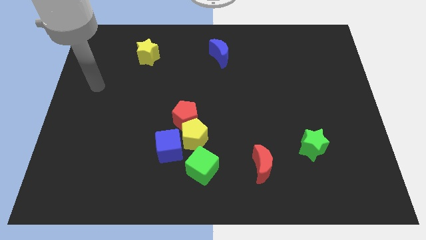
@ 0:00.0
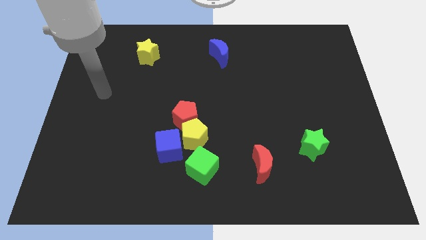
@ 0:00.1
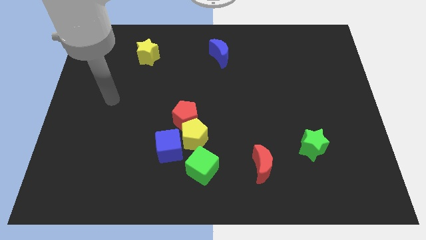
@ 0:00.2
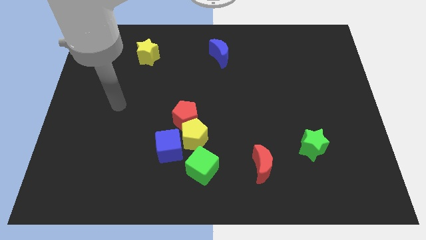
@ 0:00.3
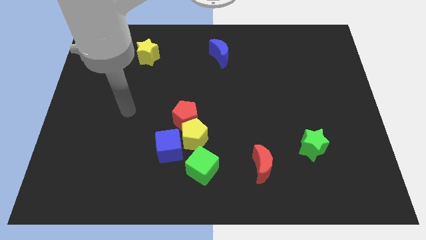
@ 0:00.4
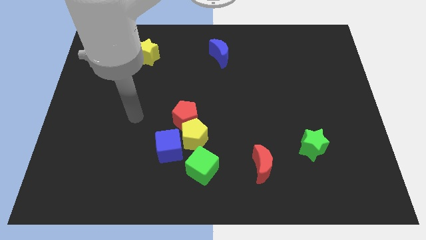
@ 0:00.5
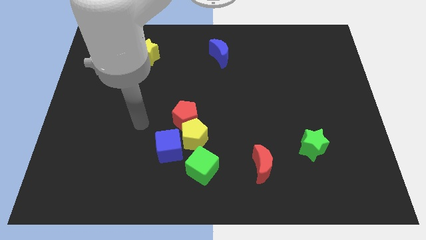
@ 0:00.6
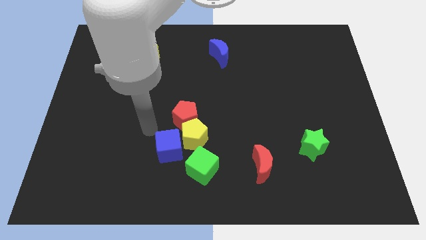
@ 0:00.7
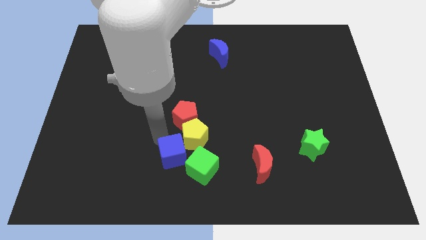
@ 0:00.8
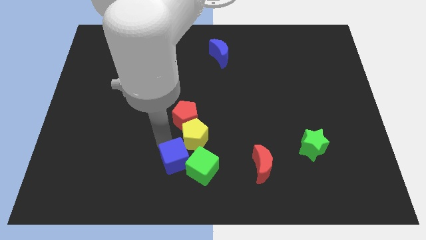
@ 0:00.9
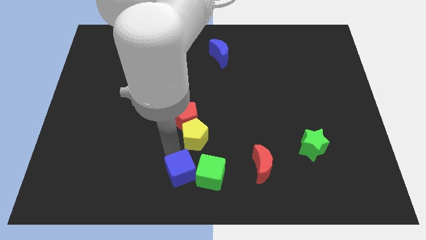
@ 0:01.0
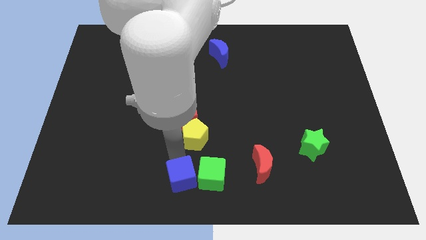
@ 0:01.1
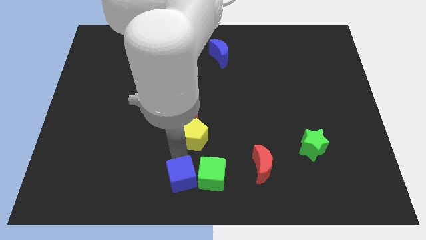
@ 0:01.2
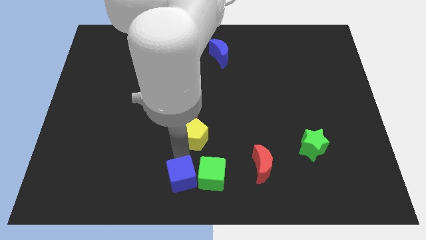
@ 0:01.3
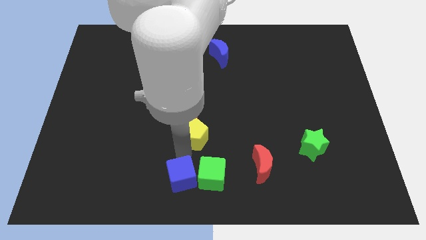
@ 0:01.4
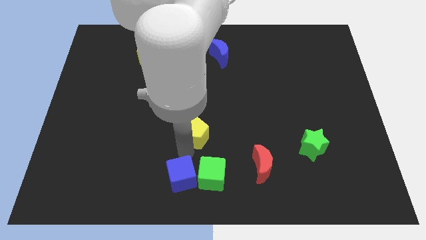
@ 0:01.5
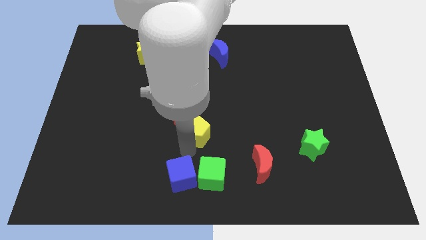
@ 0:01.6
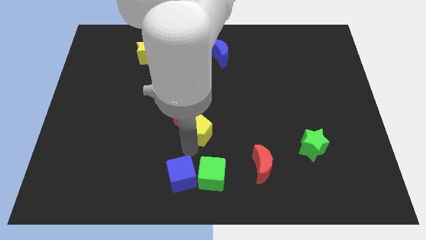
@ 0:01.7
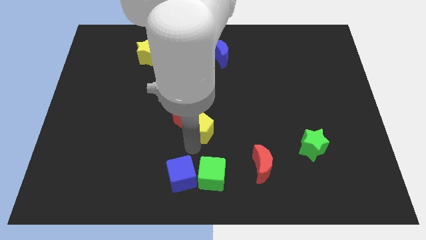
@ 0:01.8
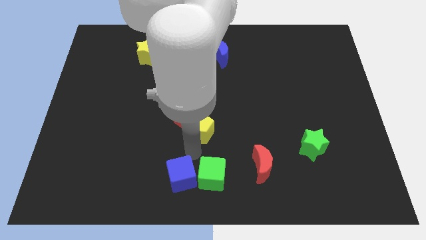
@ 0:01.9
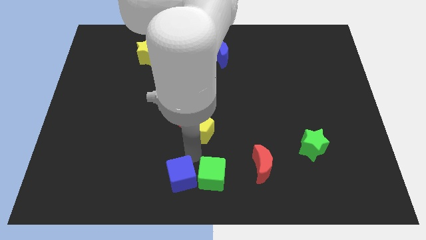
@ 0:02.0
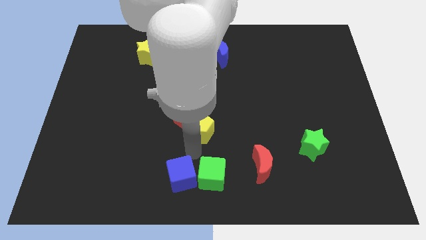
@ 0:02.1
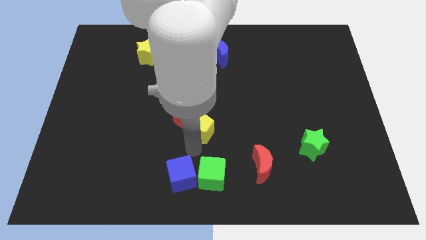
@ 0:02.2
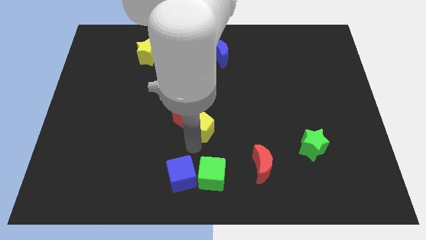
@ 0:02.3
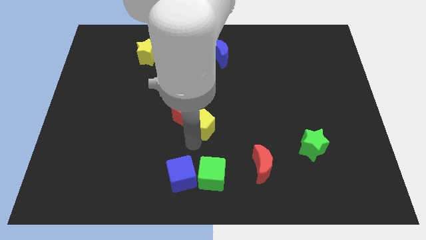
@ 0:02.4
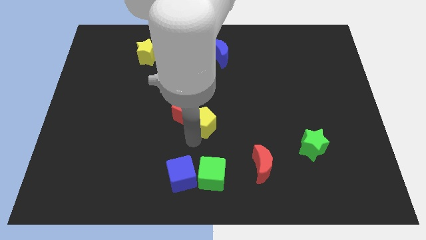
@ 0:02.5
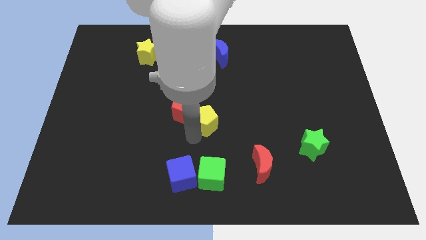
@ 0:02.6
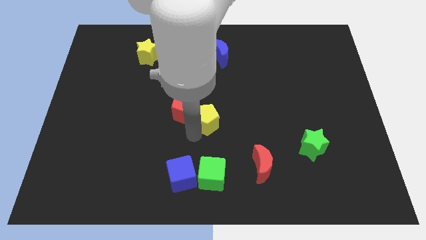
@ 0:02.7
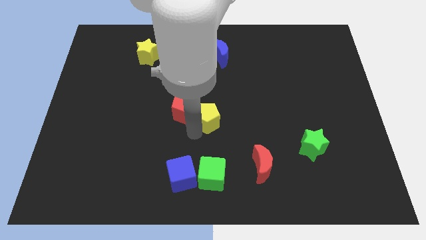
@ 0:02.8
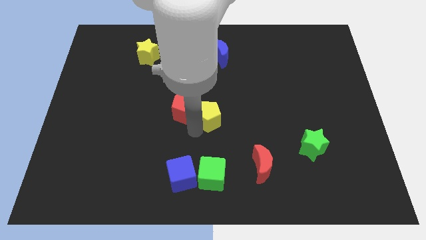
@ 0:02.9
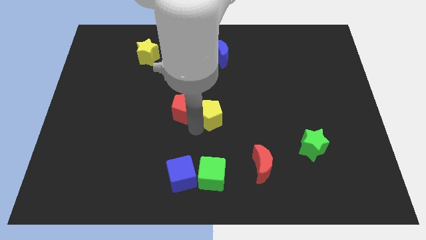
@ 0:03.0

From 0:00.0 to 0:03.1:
pull the yellow pentagon apart from the red pentagon, blue cube, and green cube

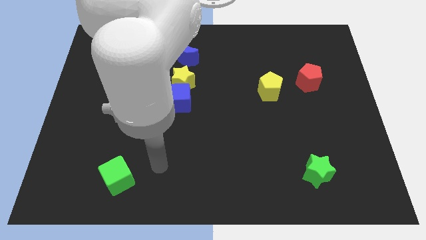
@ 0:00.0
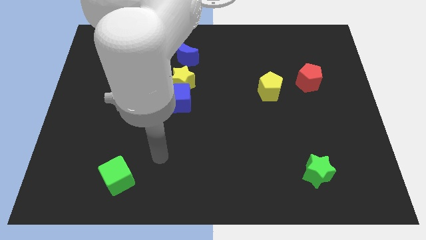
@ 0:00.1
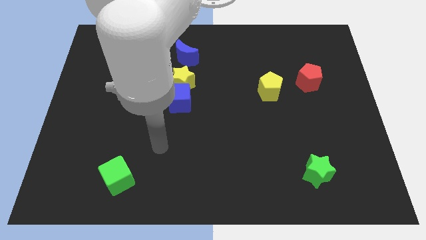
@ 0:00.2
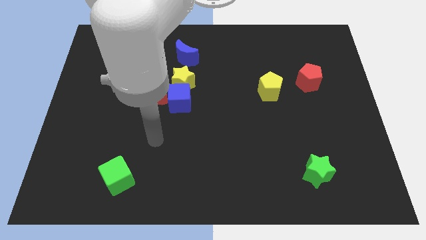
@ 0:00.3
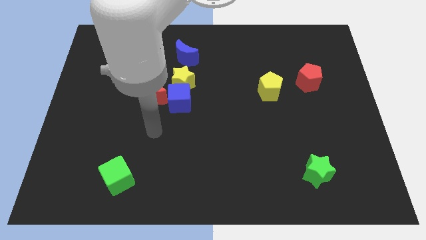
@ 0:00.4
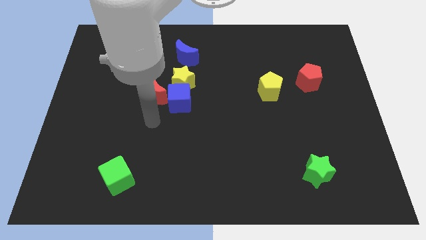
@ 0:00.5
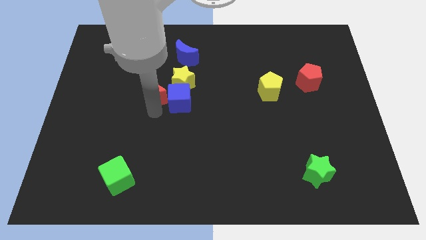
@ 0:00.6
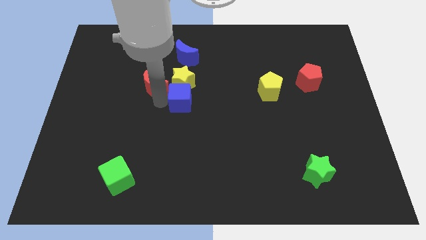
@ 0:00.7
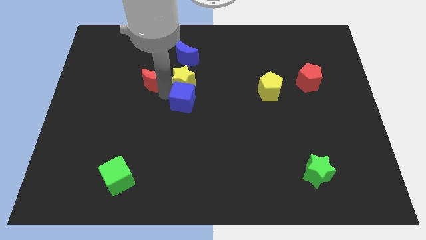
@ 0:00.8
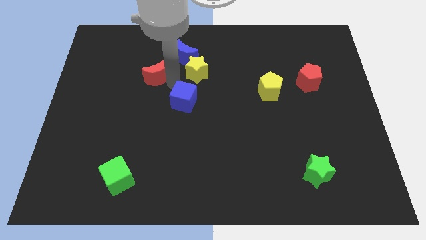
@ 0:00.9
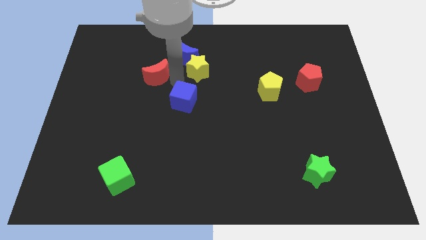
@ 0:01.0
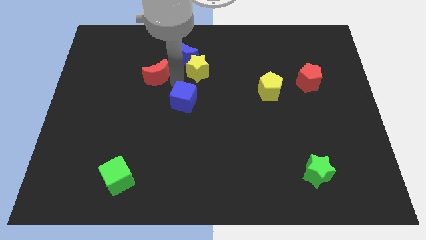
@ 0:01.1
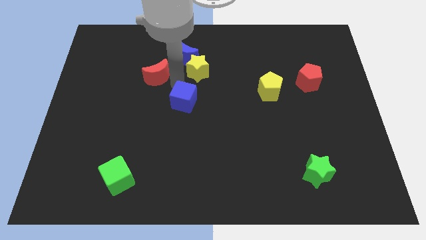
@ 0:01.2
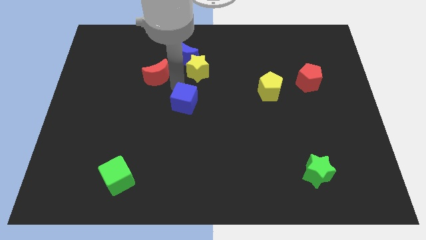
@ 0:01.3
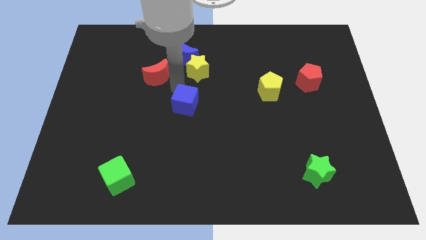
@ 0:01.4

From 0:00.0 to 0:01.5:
separate the blue cube from the yellow star and red moon

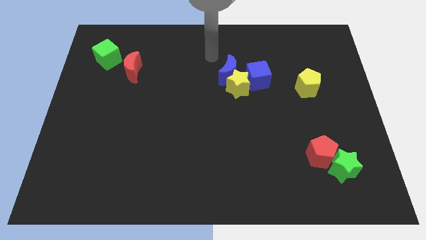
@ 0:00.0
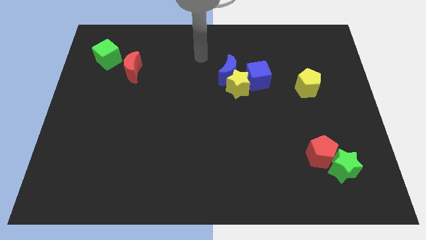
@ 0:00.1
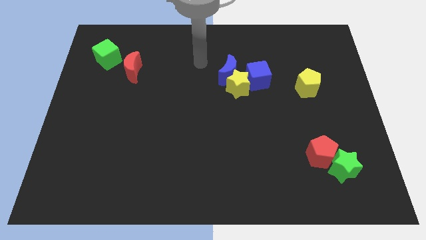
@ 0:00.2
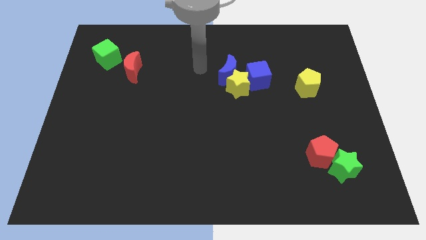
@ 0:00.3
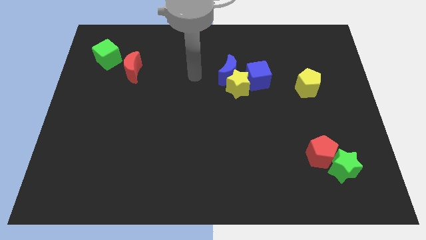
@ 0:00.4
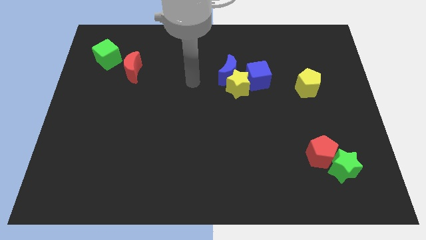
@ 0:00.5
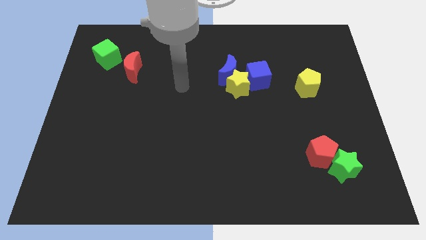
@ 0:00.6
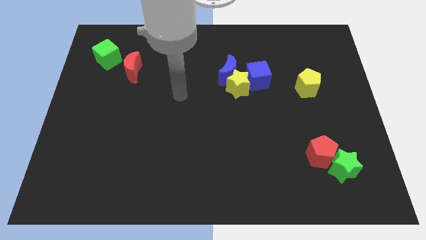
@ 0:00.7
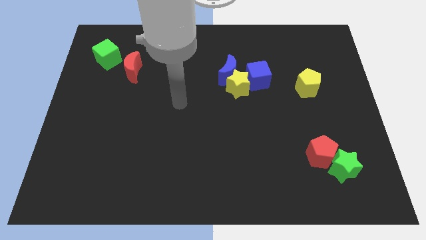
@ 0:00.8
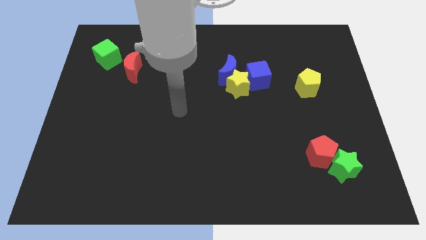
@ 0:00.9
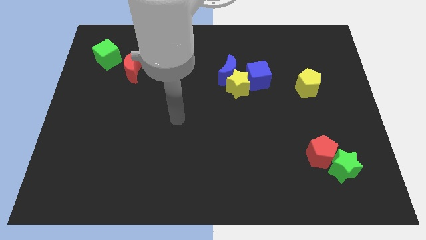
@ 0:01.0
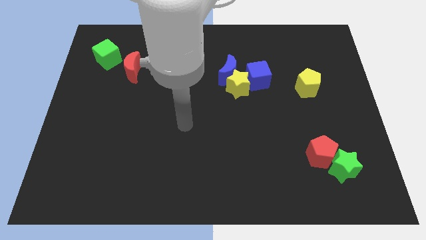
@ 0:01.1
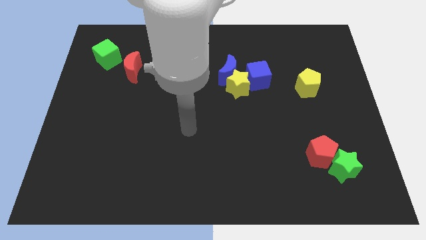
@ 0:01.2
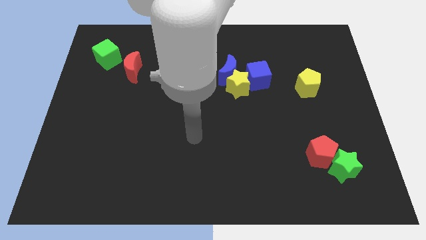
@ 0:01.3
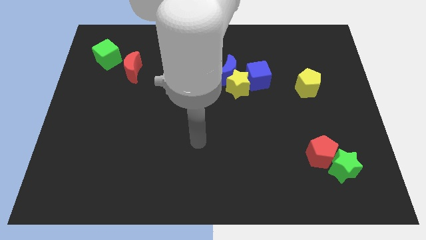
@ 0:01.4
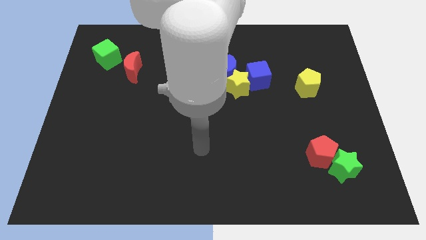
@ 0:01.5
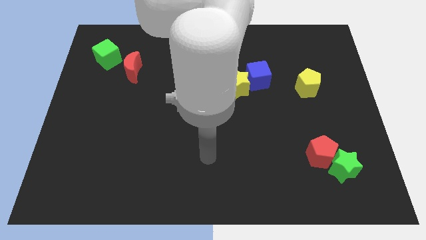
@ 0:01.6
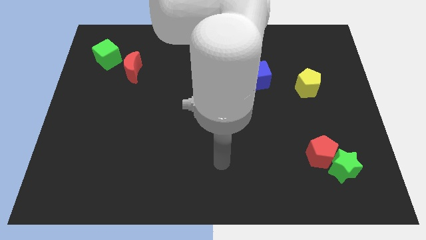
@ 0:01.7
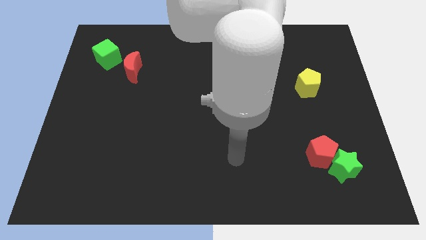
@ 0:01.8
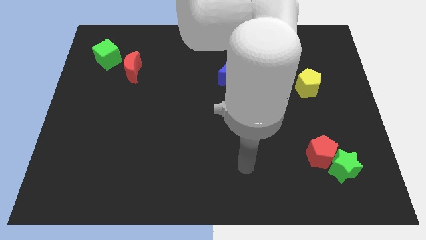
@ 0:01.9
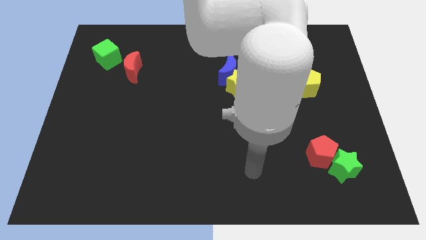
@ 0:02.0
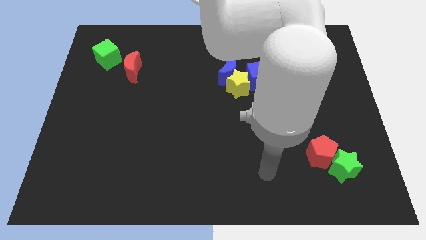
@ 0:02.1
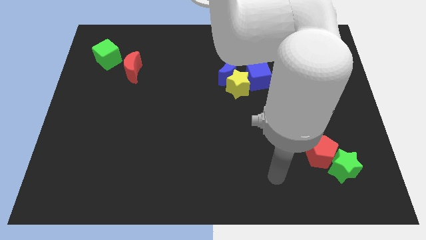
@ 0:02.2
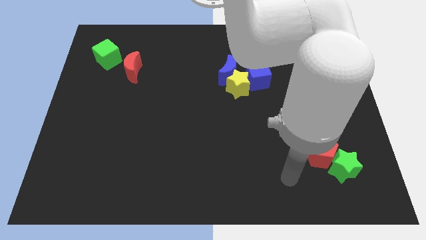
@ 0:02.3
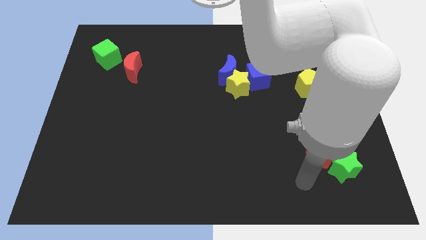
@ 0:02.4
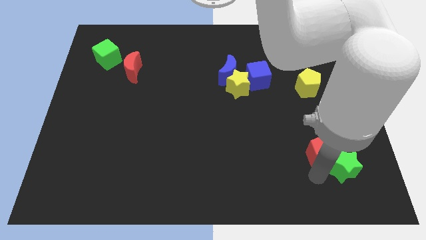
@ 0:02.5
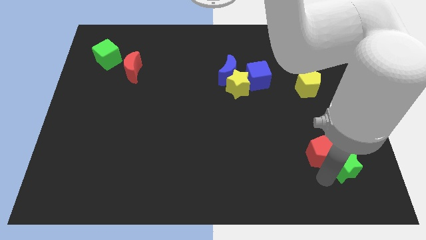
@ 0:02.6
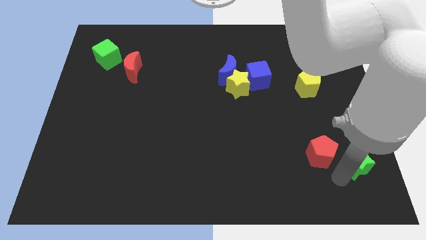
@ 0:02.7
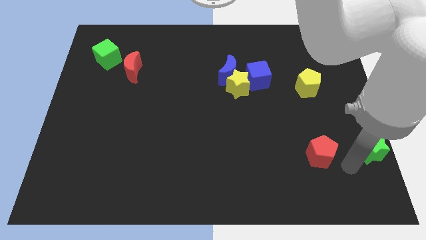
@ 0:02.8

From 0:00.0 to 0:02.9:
move the red pentagon away from the green star

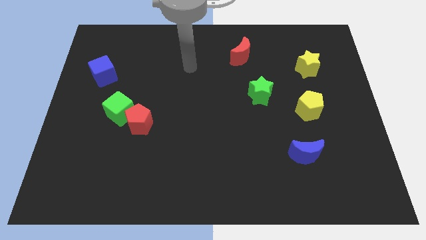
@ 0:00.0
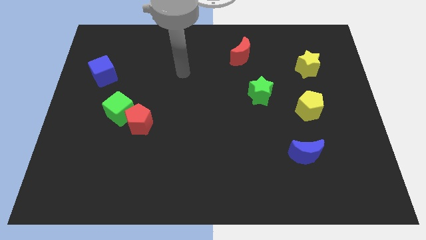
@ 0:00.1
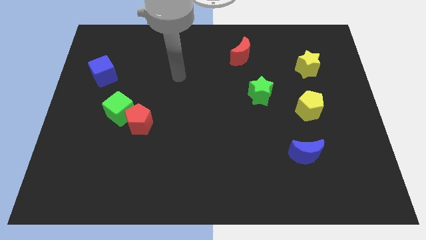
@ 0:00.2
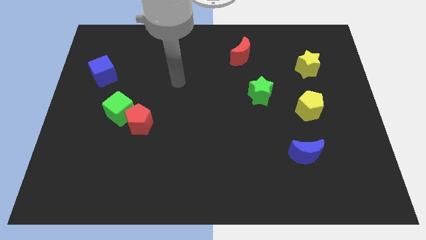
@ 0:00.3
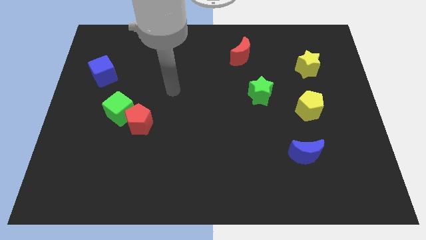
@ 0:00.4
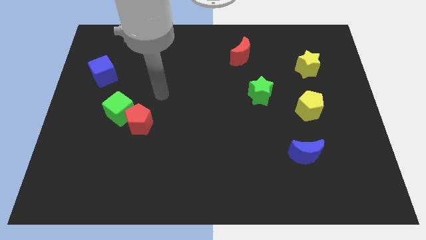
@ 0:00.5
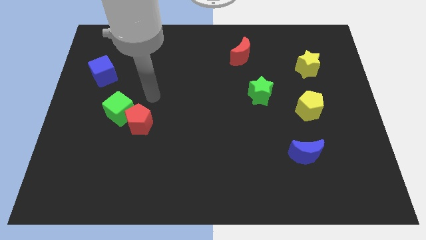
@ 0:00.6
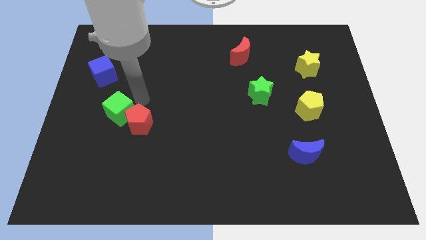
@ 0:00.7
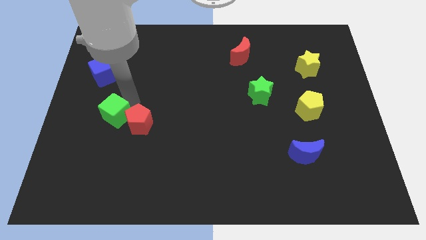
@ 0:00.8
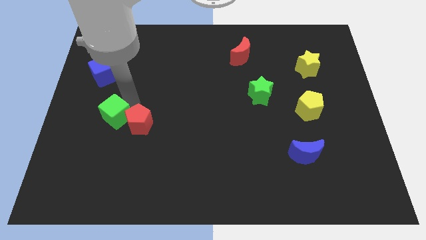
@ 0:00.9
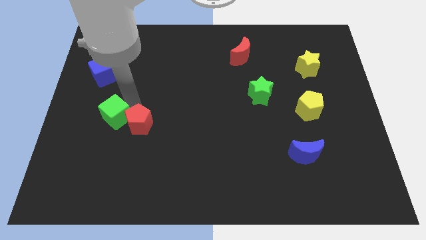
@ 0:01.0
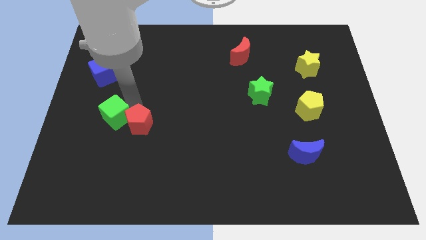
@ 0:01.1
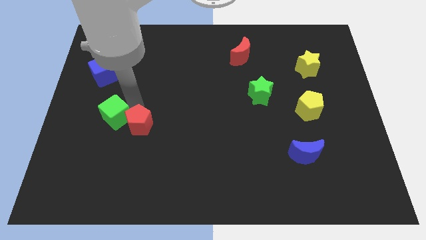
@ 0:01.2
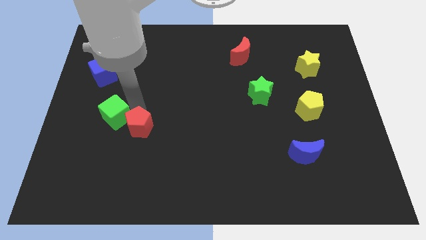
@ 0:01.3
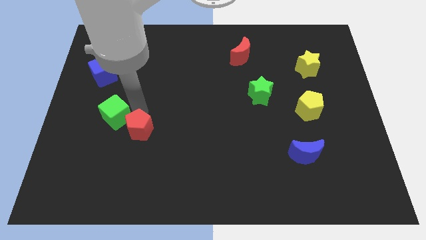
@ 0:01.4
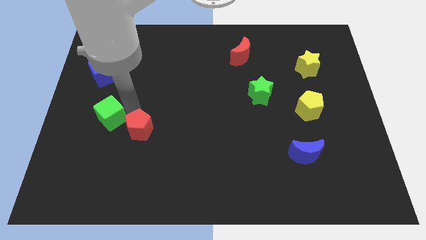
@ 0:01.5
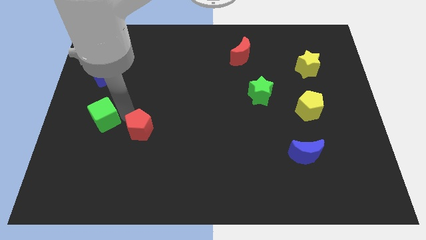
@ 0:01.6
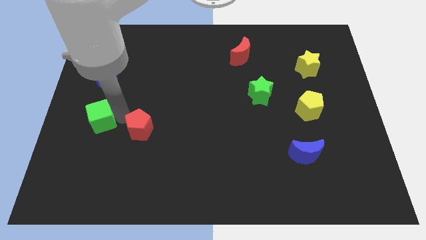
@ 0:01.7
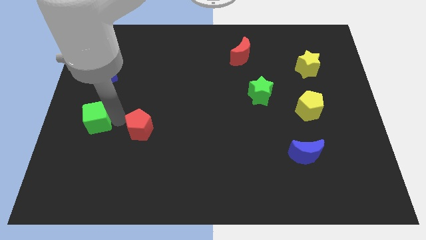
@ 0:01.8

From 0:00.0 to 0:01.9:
pull the red pentagon apart from the green cube

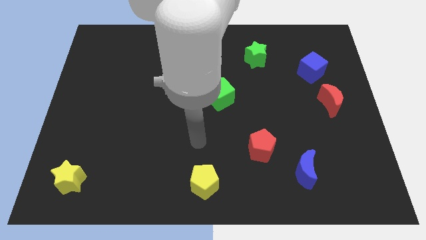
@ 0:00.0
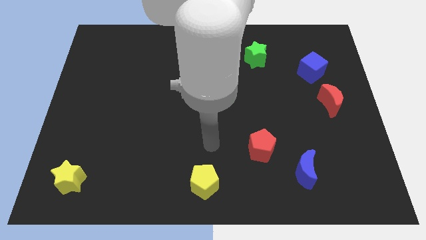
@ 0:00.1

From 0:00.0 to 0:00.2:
separate the red pentagon from the blue moon
